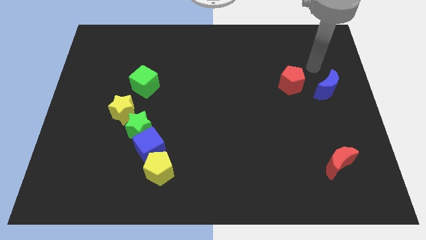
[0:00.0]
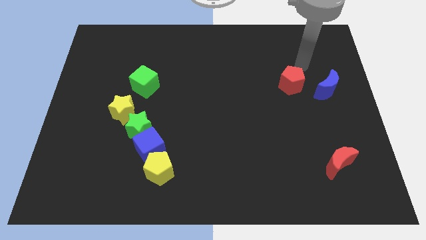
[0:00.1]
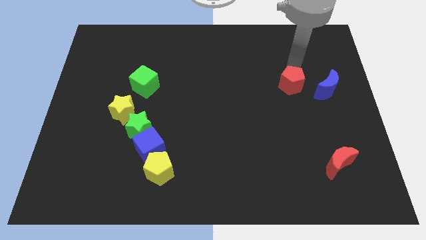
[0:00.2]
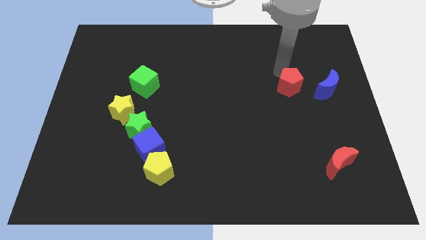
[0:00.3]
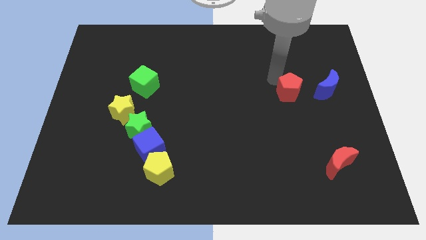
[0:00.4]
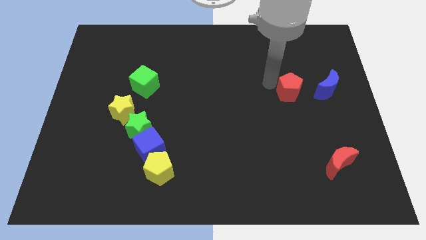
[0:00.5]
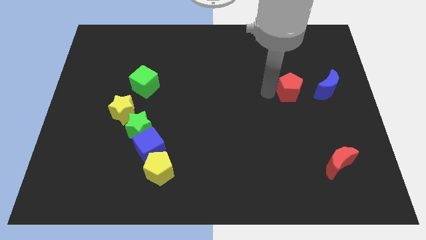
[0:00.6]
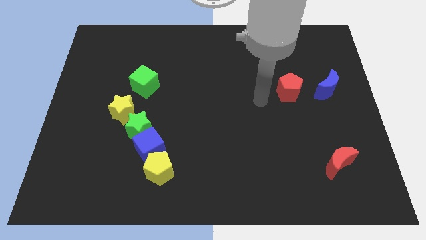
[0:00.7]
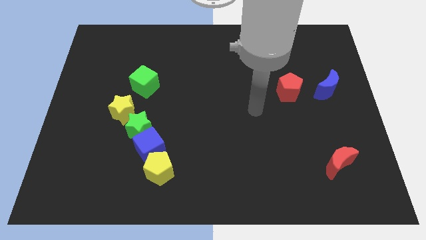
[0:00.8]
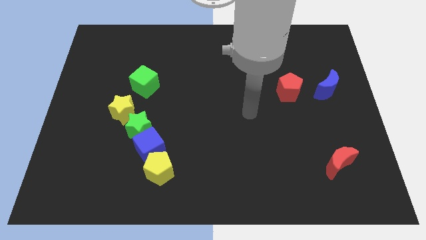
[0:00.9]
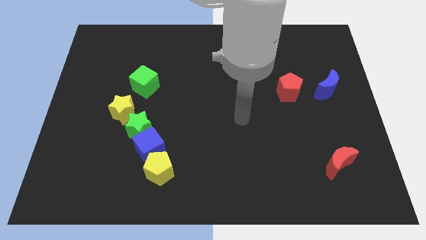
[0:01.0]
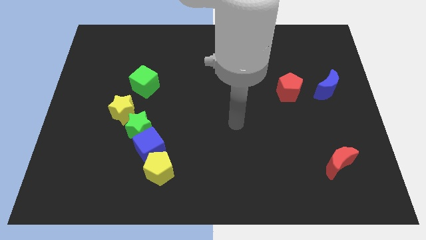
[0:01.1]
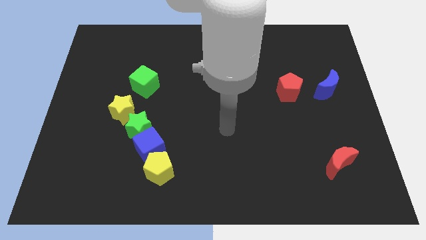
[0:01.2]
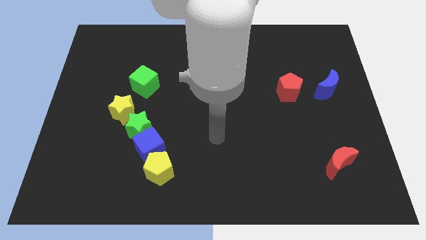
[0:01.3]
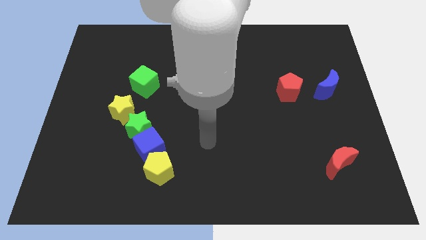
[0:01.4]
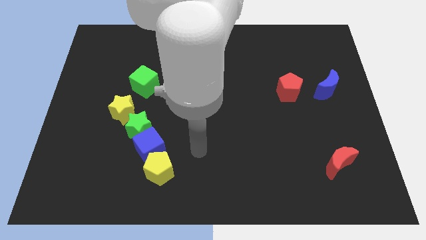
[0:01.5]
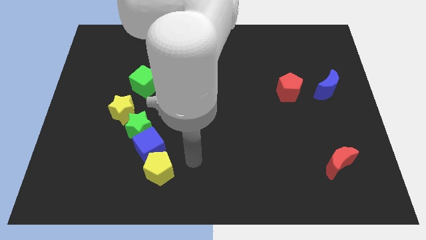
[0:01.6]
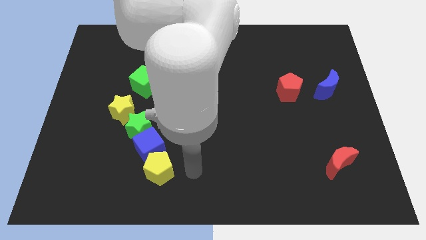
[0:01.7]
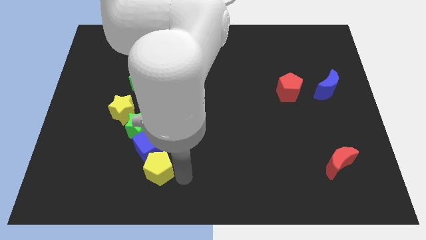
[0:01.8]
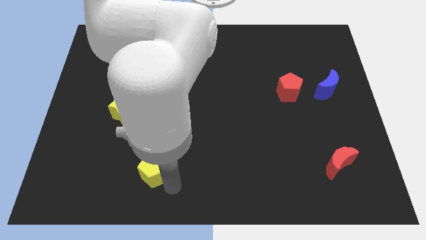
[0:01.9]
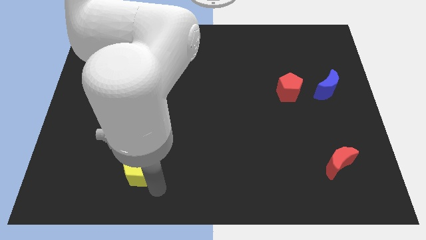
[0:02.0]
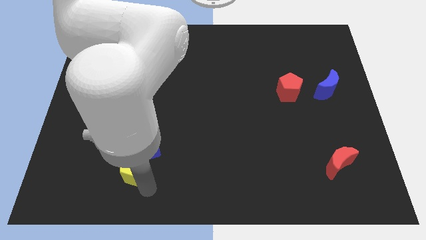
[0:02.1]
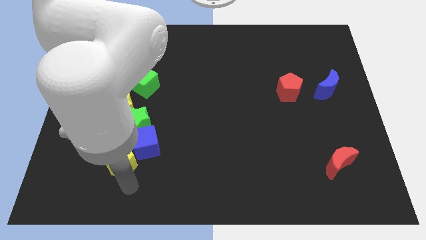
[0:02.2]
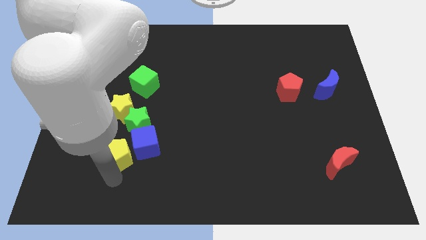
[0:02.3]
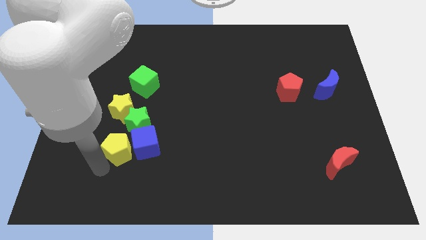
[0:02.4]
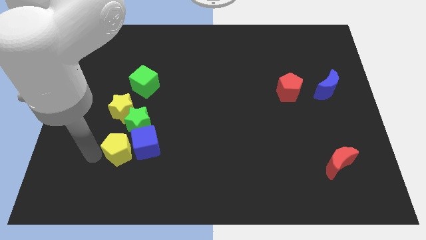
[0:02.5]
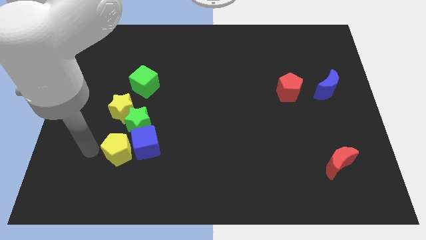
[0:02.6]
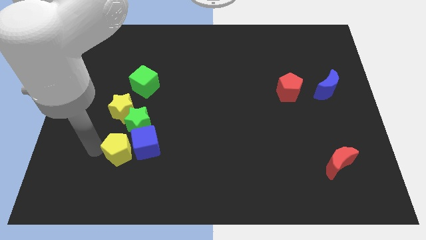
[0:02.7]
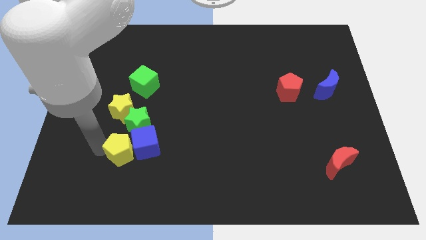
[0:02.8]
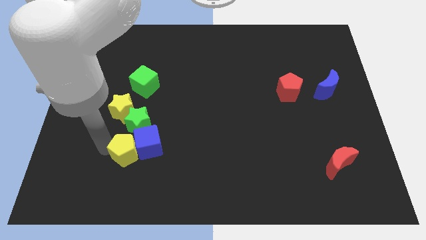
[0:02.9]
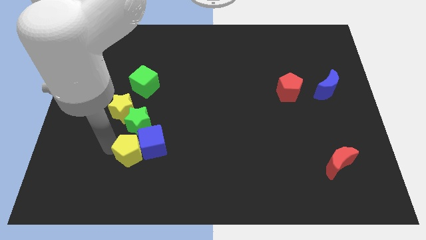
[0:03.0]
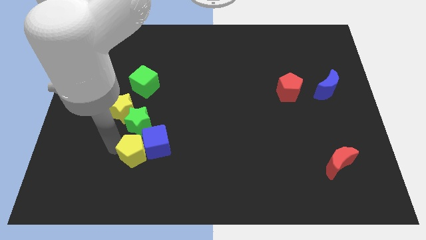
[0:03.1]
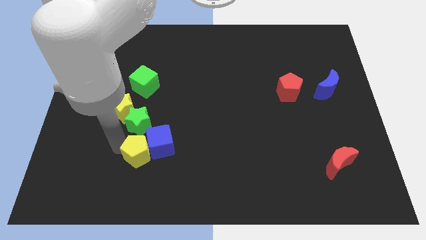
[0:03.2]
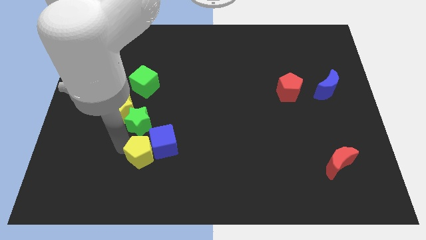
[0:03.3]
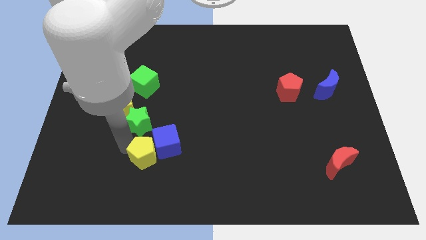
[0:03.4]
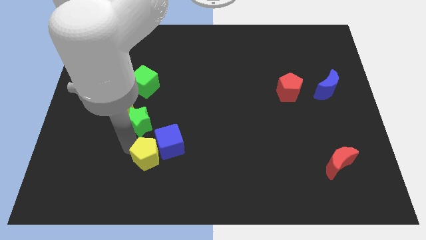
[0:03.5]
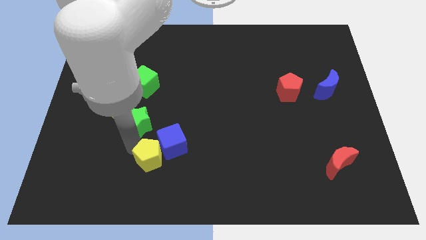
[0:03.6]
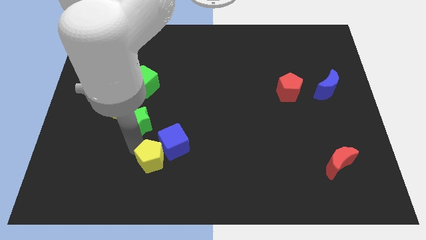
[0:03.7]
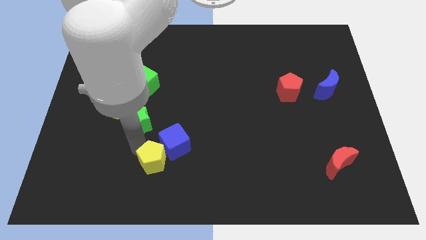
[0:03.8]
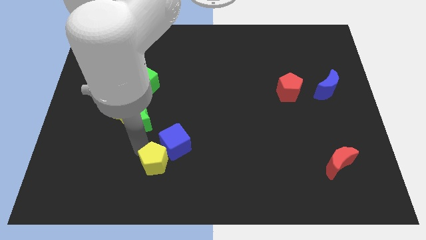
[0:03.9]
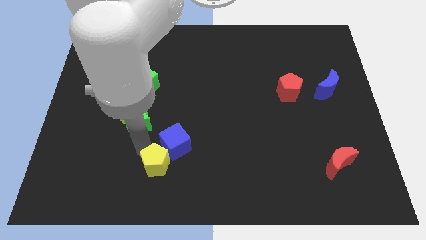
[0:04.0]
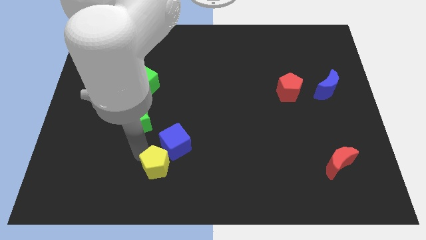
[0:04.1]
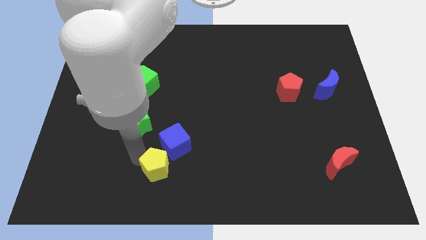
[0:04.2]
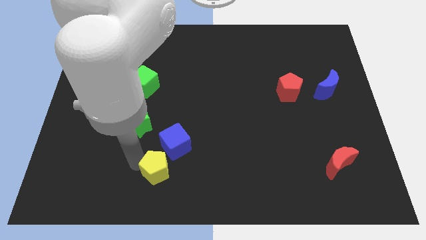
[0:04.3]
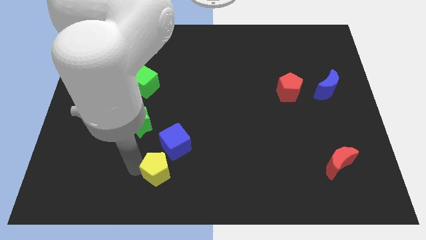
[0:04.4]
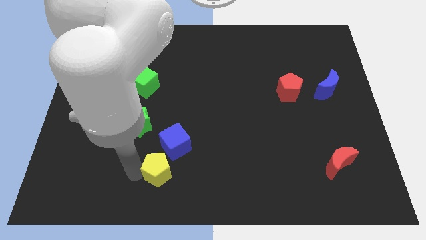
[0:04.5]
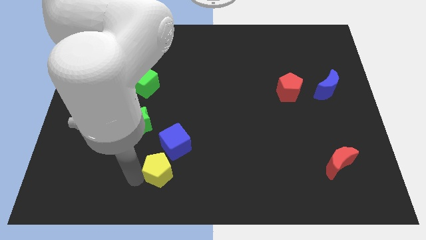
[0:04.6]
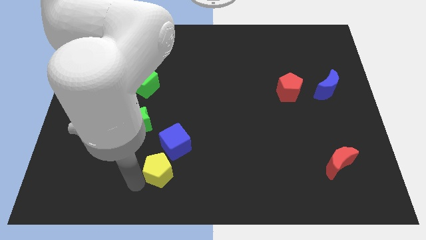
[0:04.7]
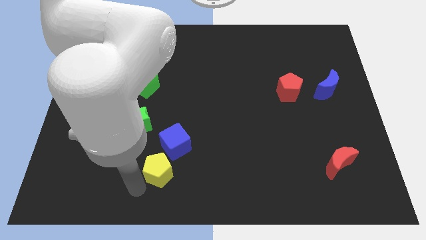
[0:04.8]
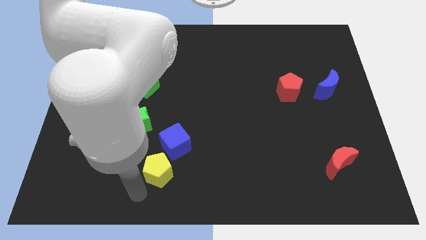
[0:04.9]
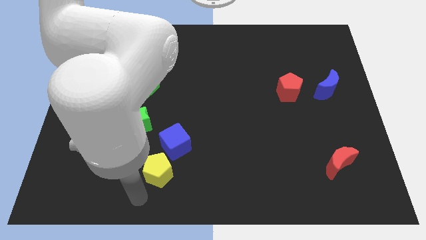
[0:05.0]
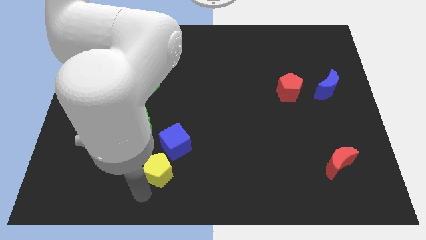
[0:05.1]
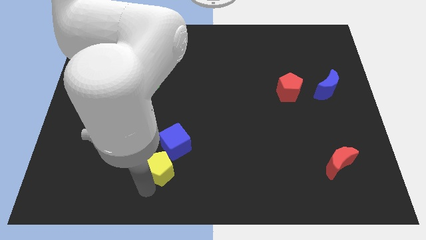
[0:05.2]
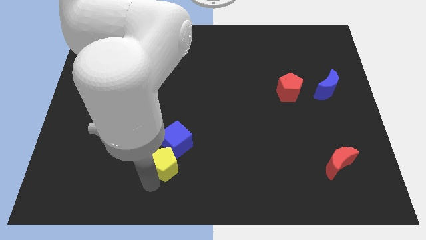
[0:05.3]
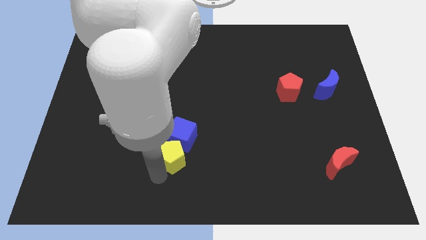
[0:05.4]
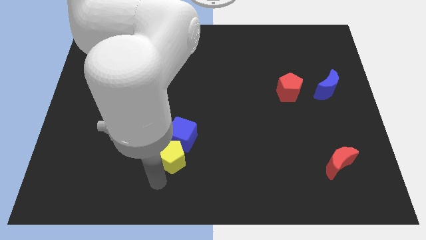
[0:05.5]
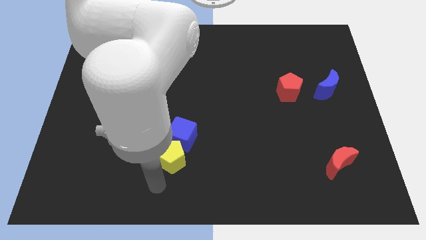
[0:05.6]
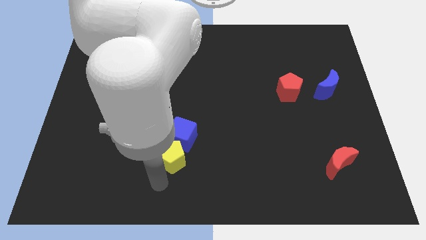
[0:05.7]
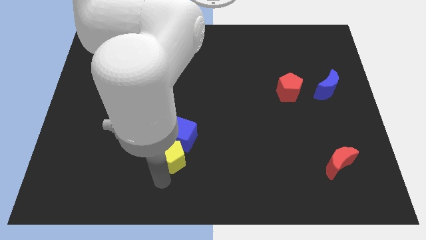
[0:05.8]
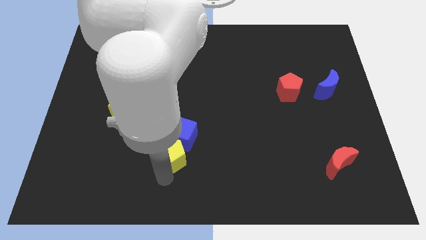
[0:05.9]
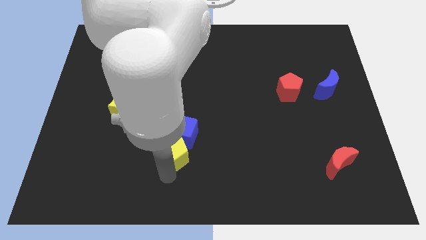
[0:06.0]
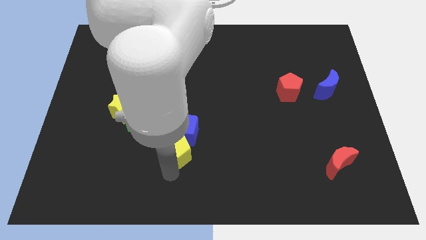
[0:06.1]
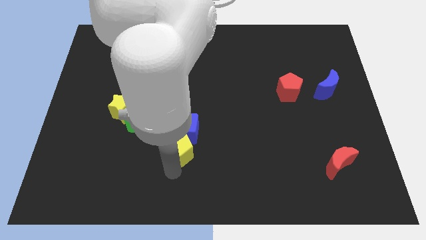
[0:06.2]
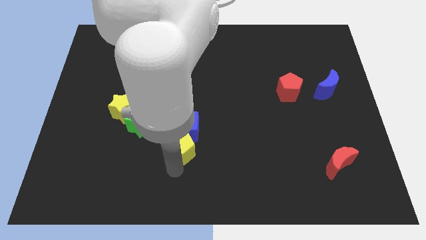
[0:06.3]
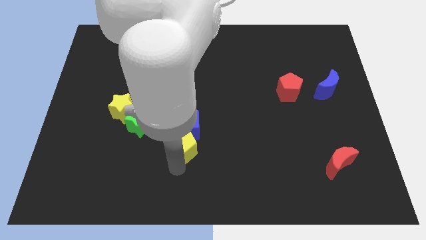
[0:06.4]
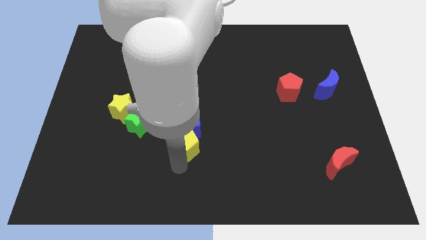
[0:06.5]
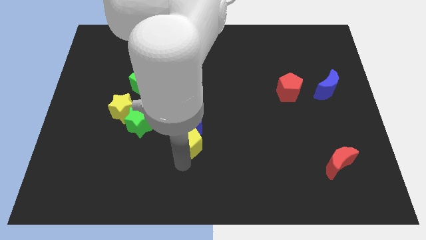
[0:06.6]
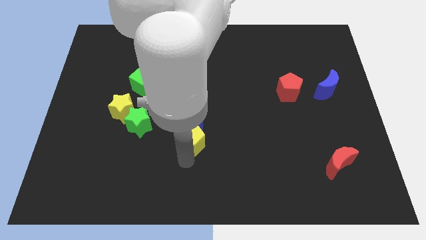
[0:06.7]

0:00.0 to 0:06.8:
push the yellow pentagon to the middle of the board

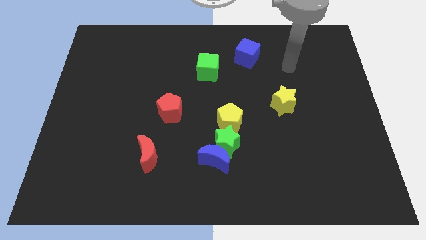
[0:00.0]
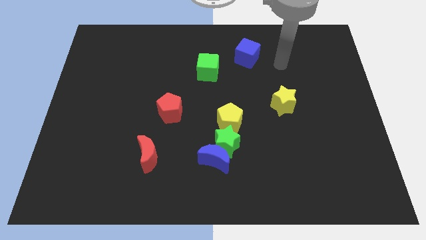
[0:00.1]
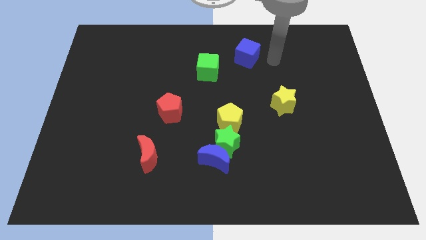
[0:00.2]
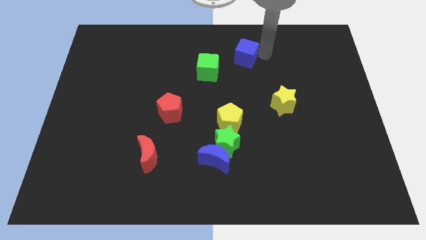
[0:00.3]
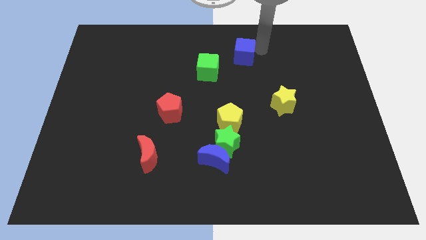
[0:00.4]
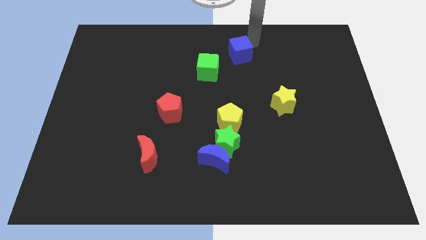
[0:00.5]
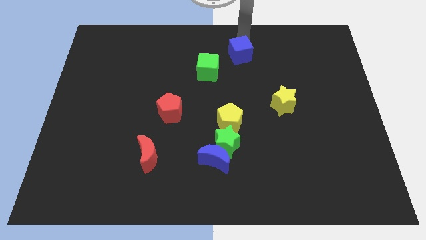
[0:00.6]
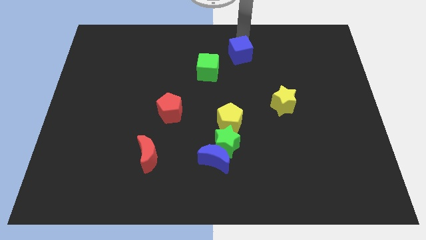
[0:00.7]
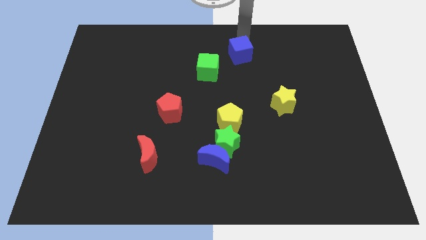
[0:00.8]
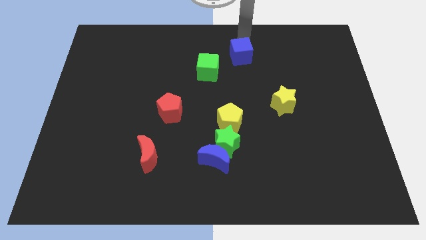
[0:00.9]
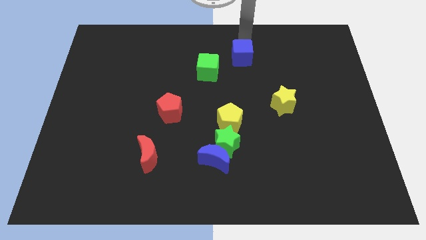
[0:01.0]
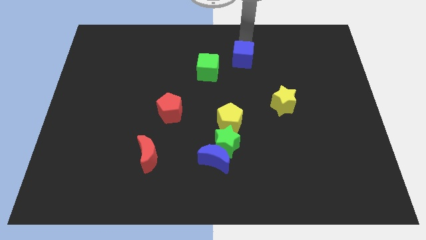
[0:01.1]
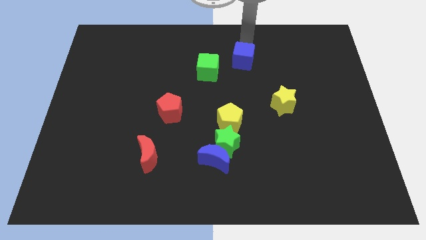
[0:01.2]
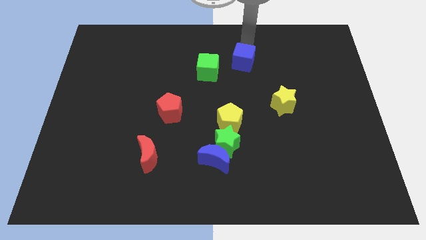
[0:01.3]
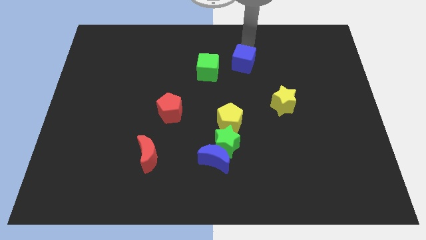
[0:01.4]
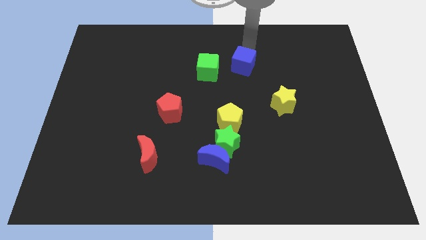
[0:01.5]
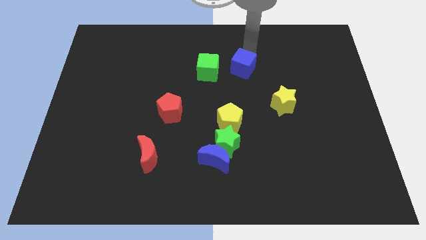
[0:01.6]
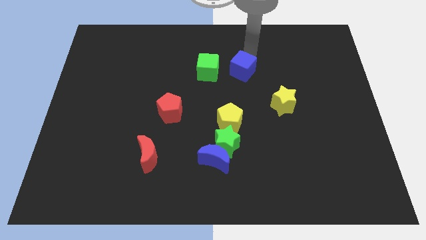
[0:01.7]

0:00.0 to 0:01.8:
slide the blue cube to the center
